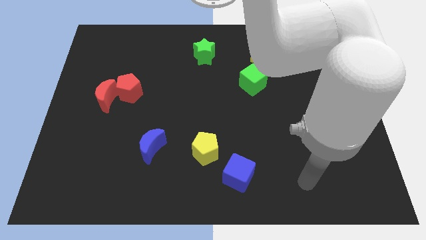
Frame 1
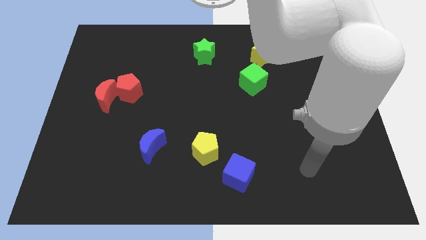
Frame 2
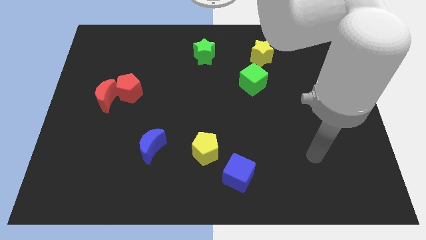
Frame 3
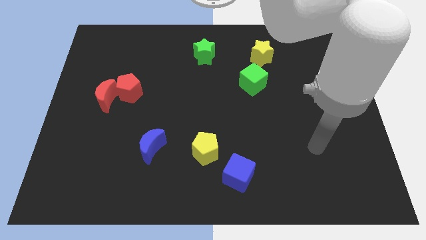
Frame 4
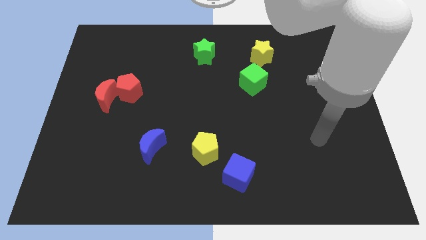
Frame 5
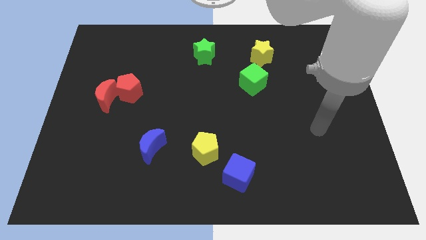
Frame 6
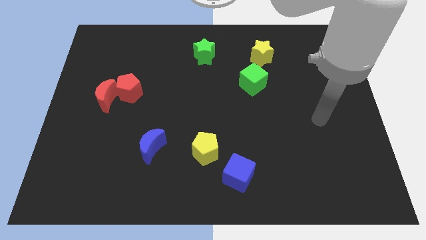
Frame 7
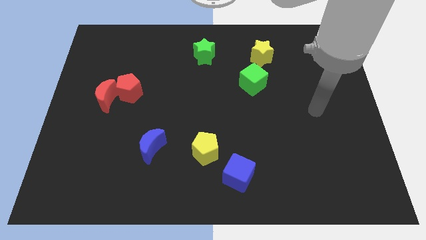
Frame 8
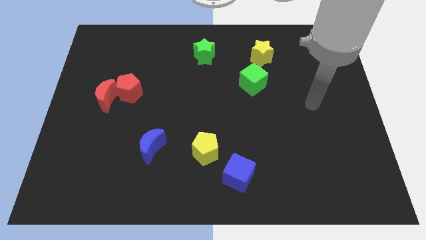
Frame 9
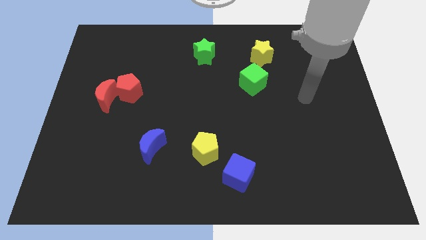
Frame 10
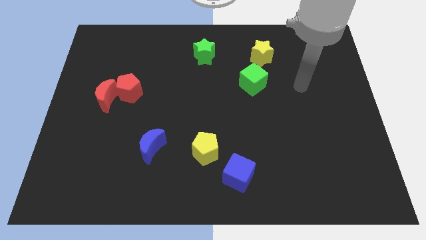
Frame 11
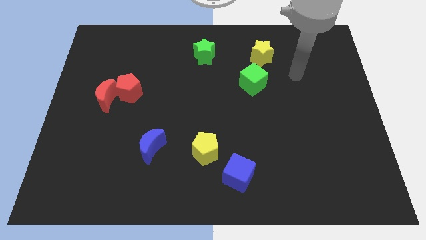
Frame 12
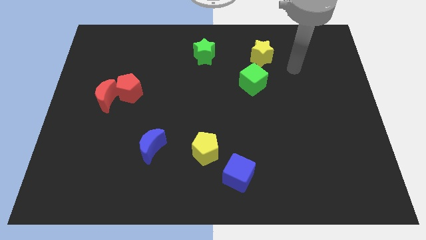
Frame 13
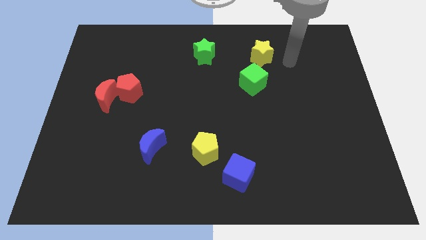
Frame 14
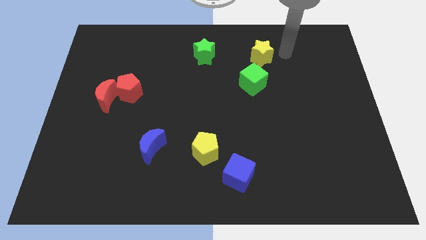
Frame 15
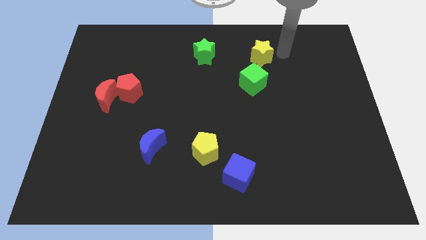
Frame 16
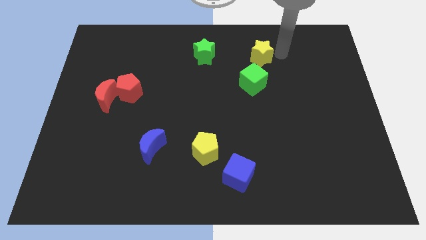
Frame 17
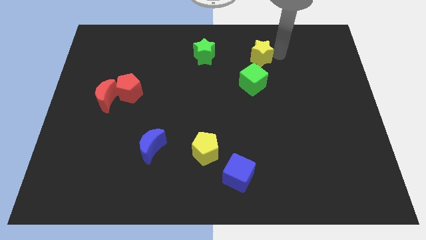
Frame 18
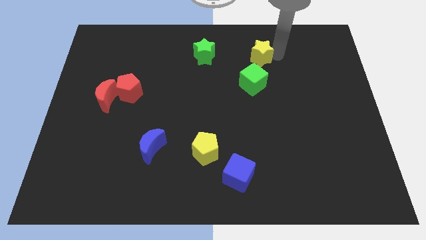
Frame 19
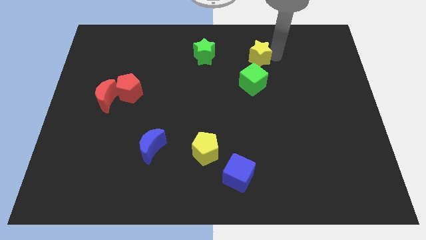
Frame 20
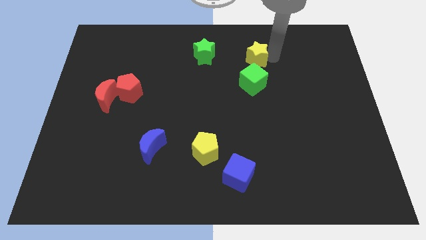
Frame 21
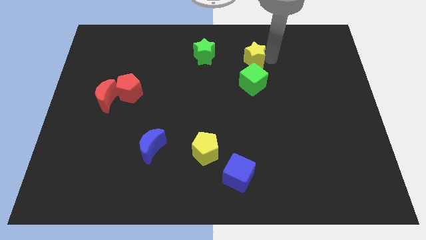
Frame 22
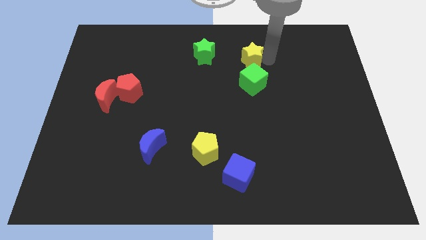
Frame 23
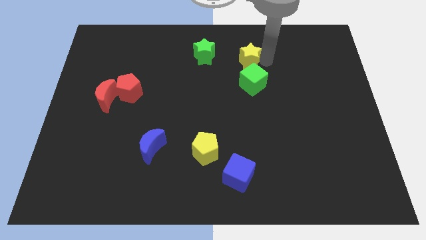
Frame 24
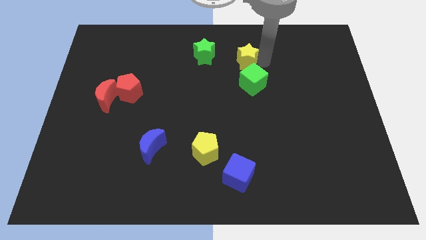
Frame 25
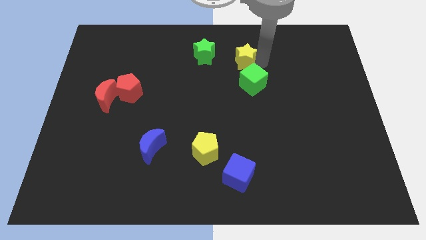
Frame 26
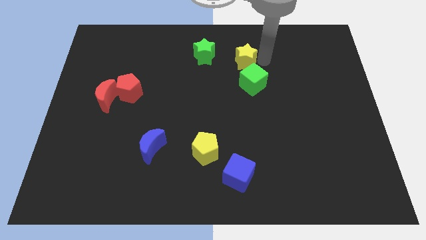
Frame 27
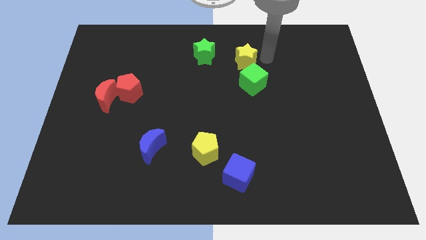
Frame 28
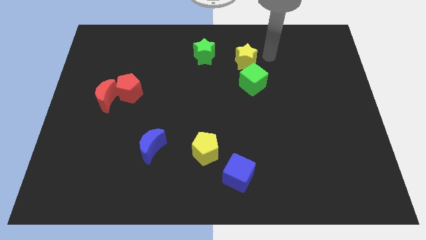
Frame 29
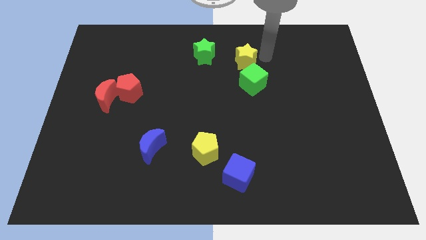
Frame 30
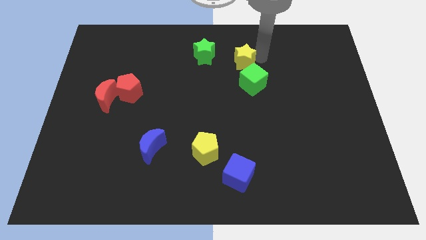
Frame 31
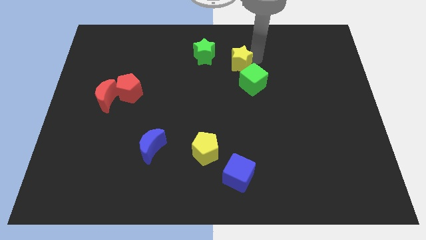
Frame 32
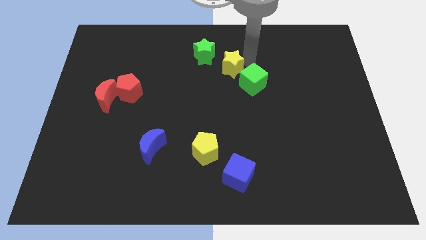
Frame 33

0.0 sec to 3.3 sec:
slide the yellow star a little bit to the left

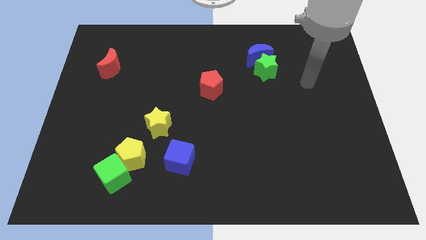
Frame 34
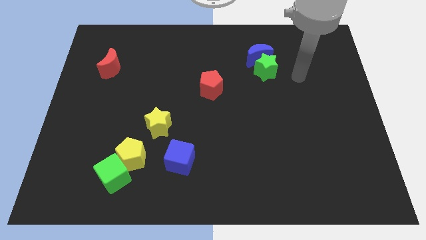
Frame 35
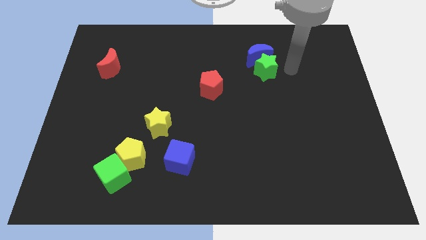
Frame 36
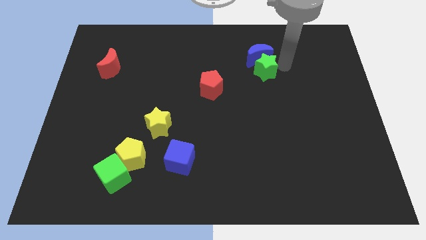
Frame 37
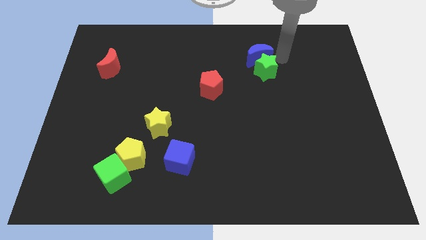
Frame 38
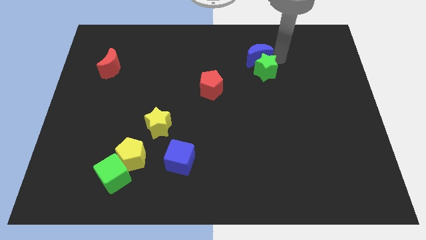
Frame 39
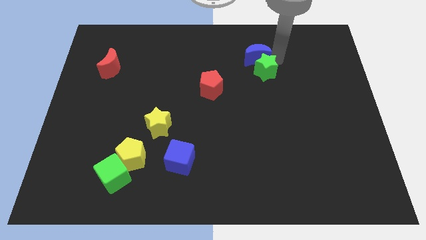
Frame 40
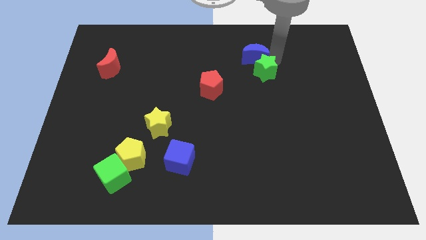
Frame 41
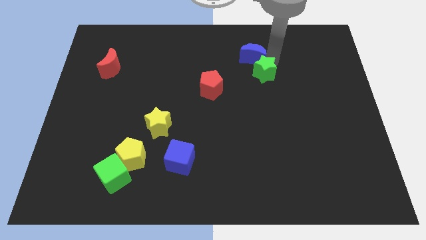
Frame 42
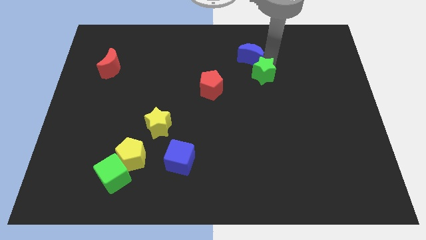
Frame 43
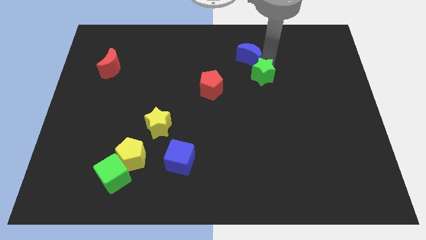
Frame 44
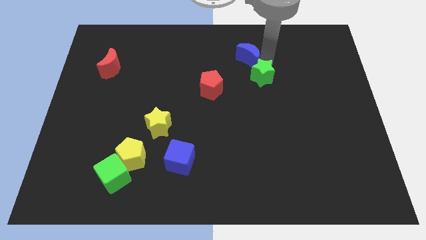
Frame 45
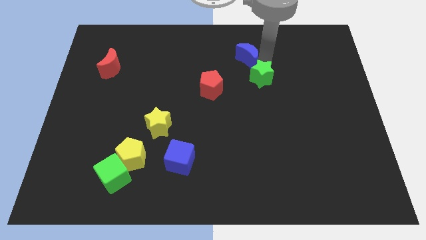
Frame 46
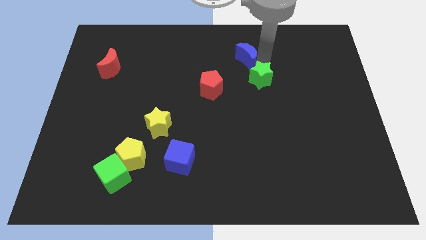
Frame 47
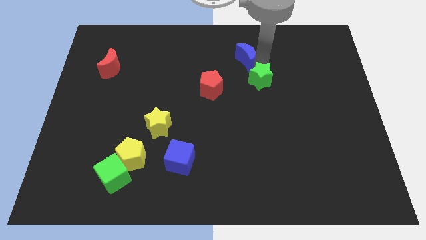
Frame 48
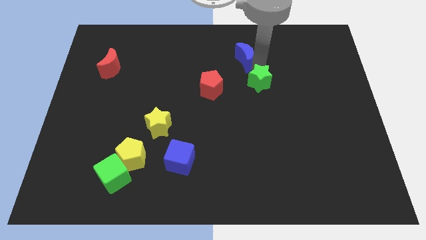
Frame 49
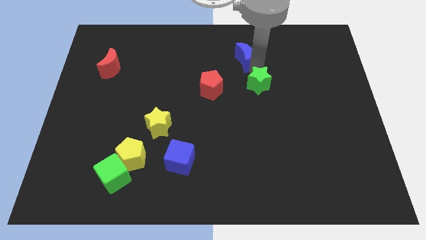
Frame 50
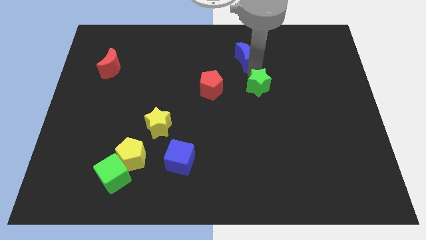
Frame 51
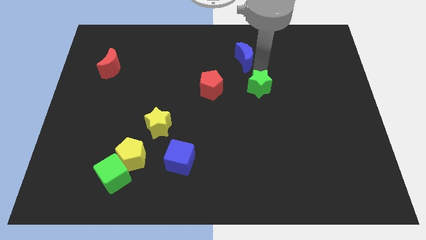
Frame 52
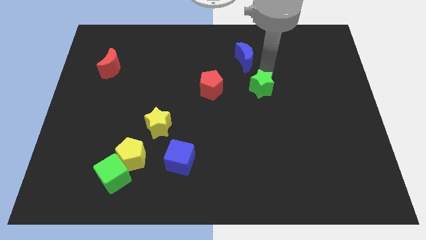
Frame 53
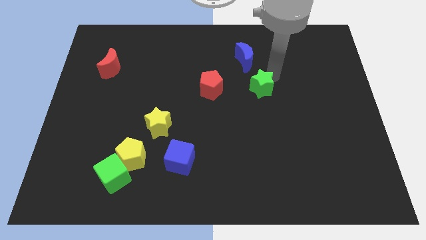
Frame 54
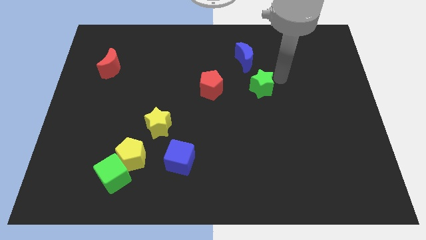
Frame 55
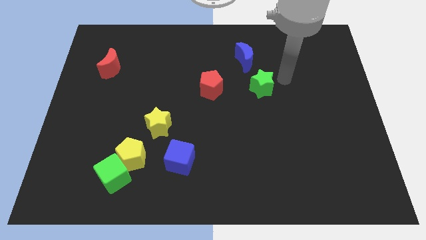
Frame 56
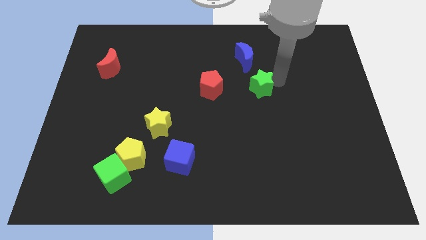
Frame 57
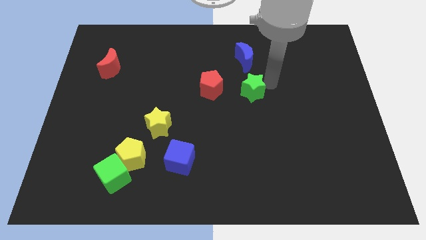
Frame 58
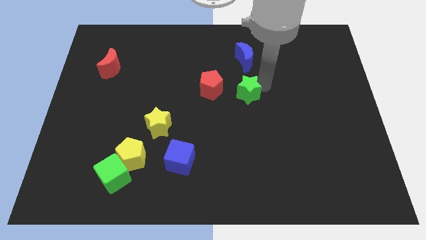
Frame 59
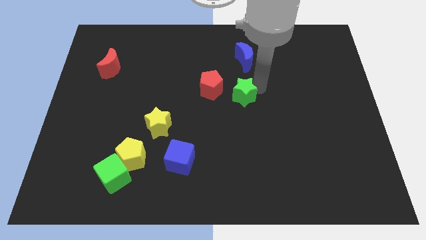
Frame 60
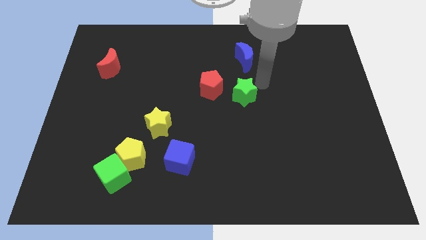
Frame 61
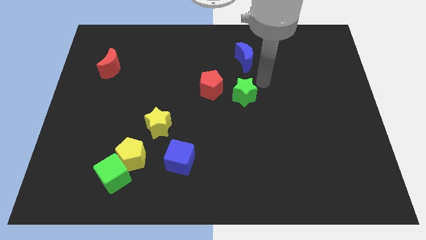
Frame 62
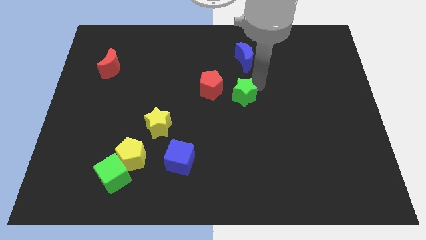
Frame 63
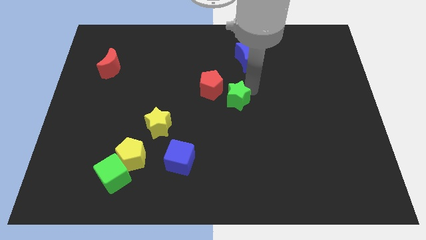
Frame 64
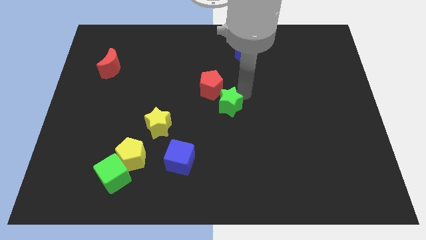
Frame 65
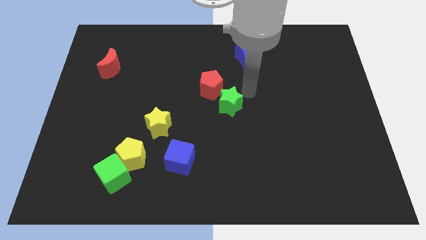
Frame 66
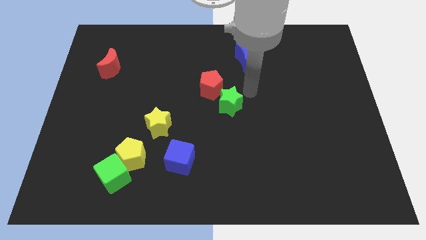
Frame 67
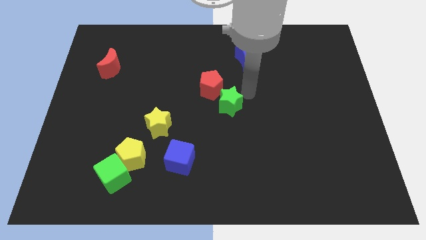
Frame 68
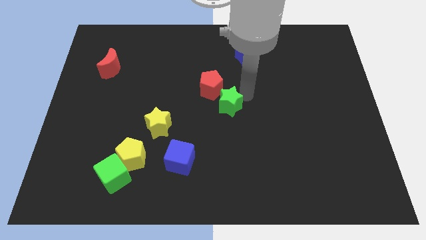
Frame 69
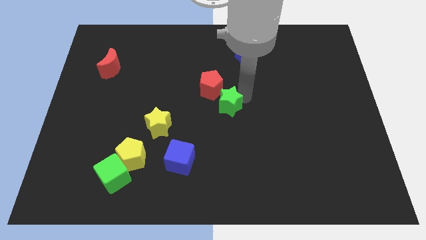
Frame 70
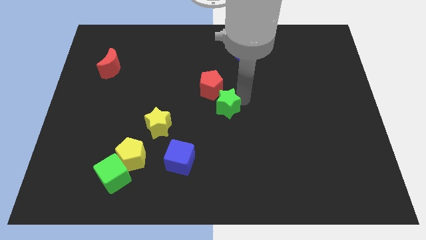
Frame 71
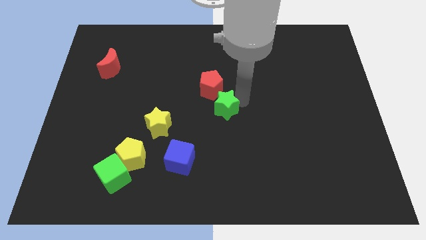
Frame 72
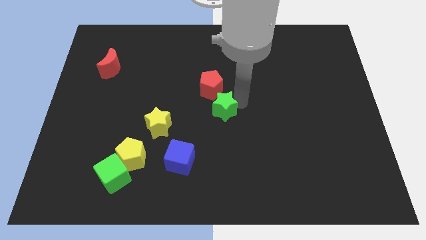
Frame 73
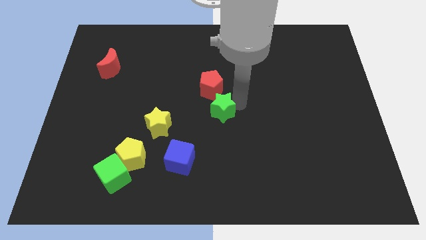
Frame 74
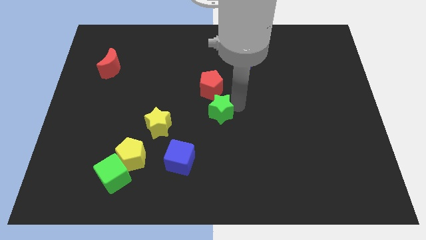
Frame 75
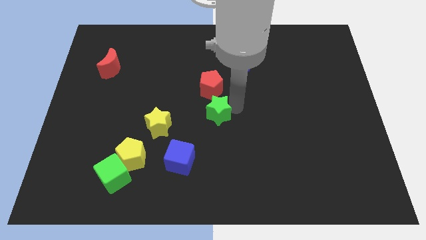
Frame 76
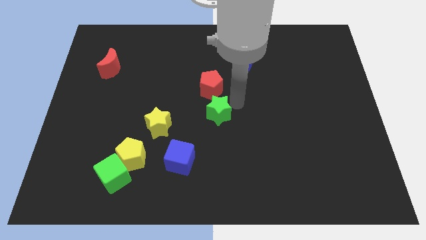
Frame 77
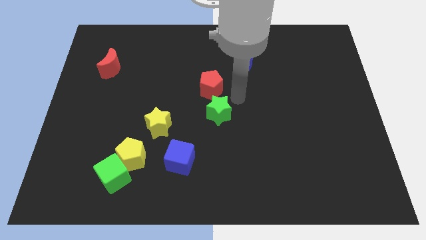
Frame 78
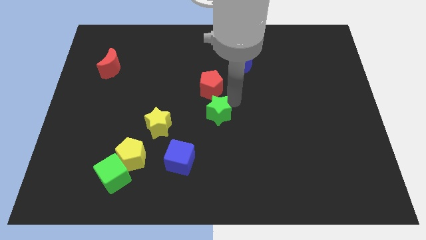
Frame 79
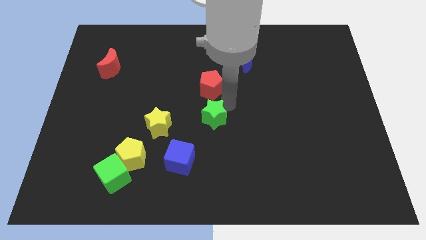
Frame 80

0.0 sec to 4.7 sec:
slide the green star downwards and to the left diagonally
